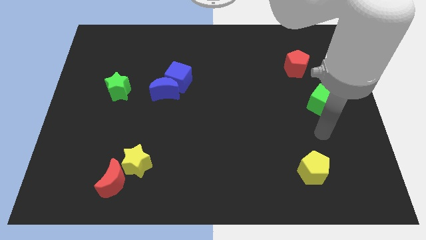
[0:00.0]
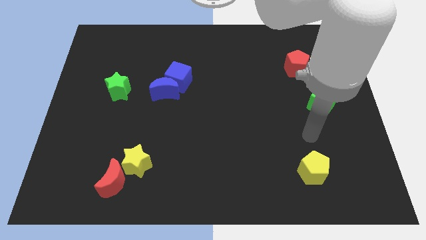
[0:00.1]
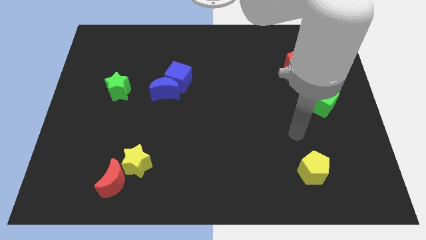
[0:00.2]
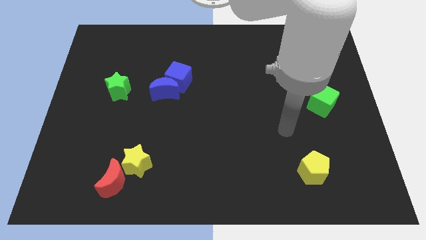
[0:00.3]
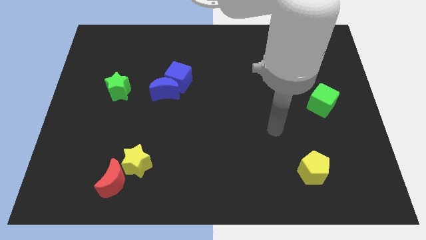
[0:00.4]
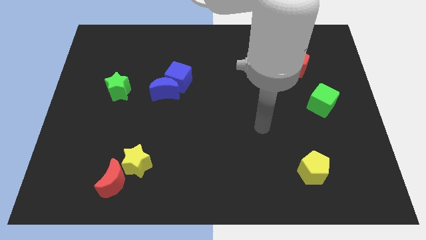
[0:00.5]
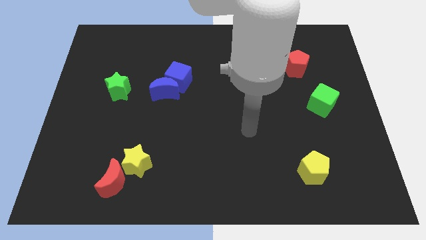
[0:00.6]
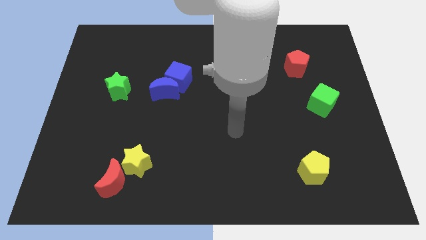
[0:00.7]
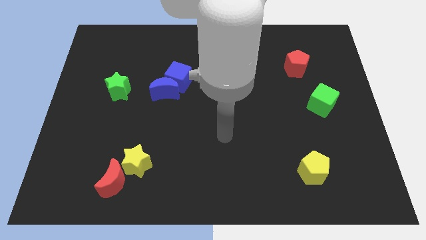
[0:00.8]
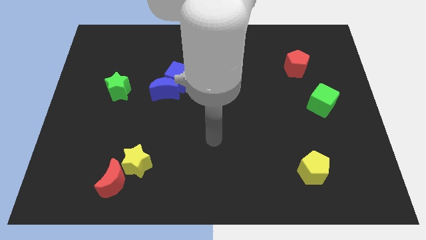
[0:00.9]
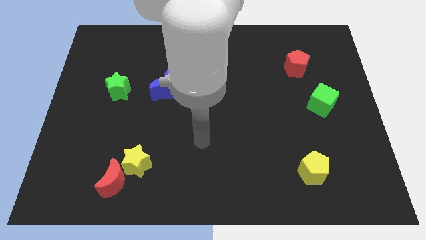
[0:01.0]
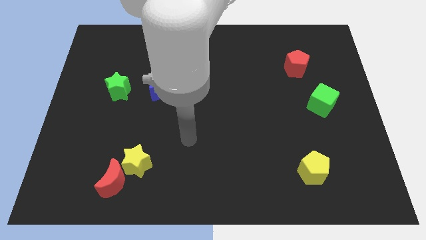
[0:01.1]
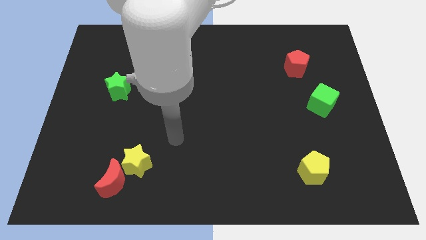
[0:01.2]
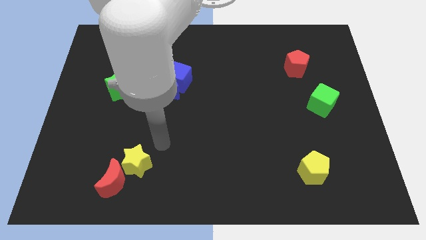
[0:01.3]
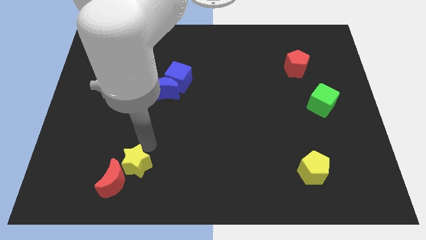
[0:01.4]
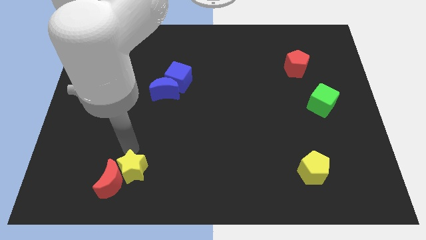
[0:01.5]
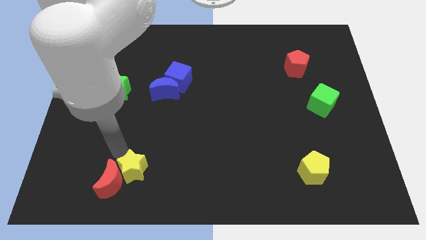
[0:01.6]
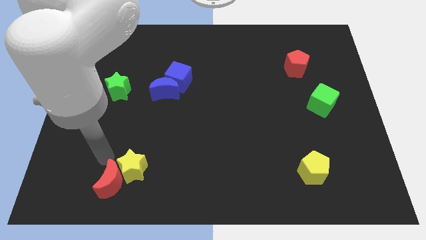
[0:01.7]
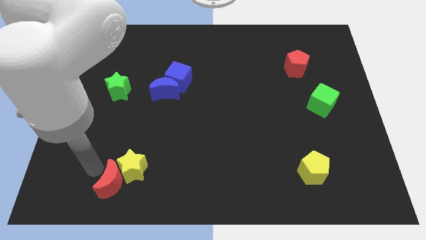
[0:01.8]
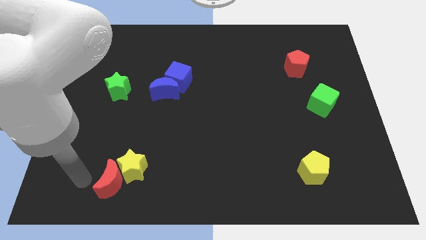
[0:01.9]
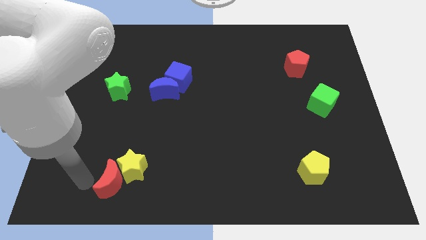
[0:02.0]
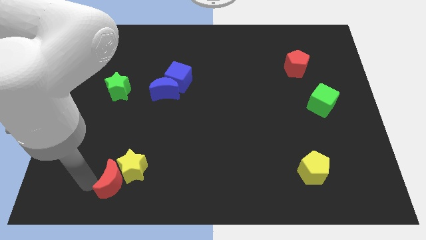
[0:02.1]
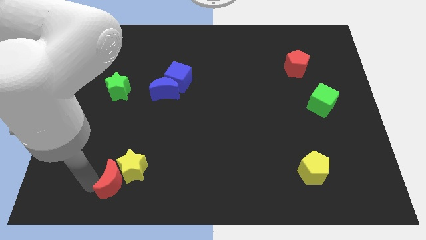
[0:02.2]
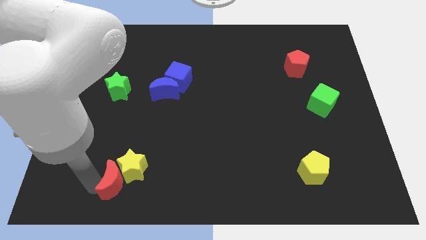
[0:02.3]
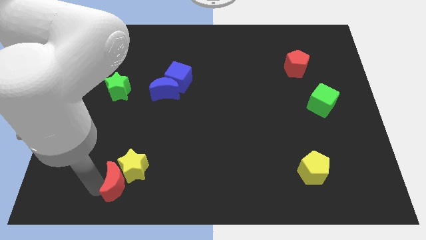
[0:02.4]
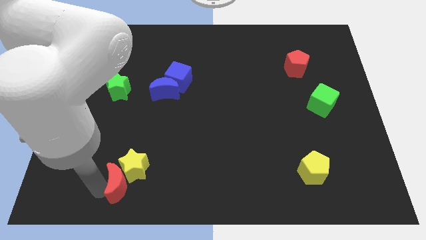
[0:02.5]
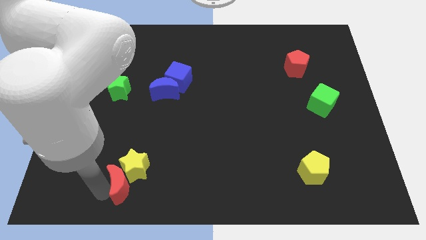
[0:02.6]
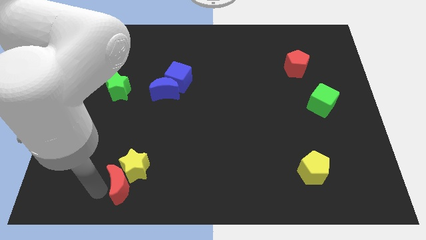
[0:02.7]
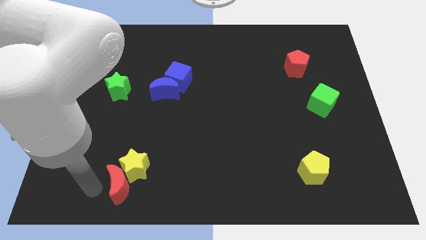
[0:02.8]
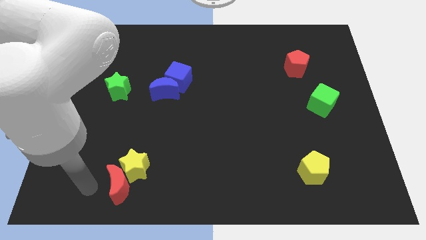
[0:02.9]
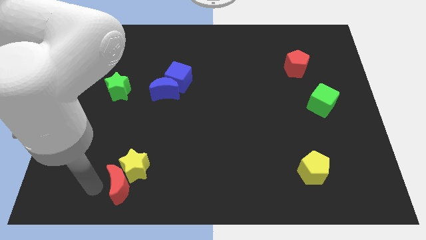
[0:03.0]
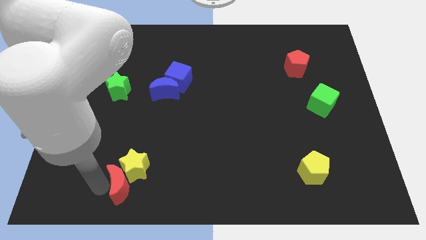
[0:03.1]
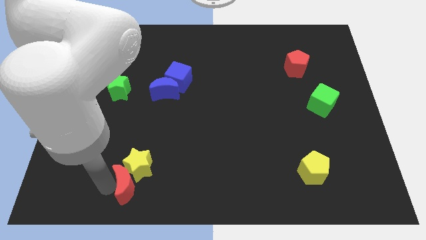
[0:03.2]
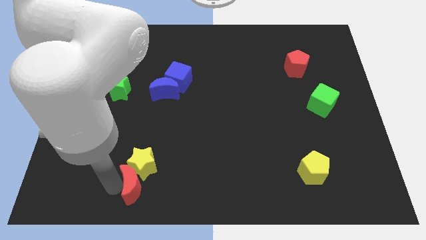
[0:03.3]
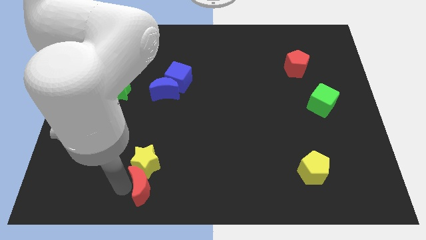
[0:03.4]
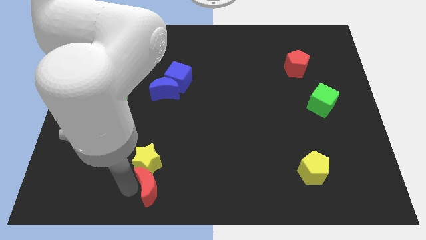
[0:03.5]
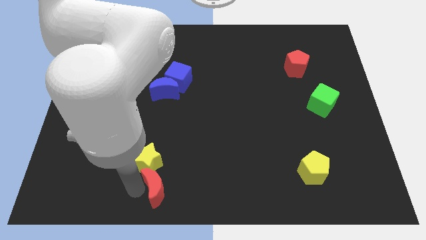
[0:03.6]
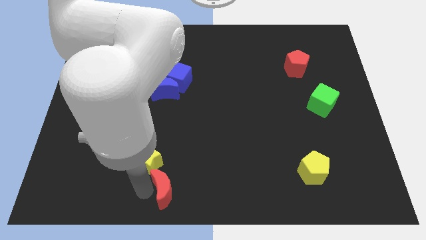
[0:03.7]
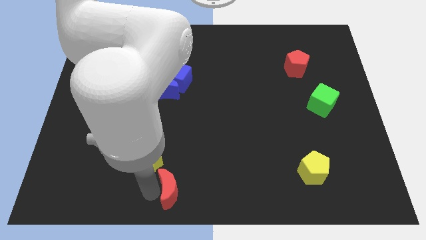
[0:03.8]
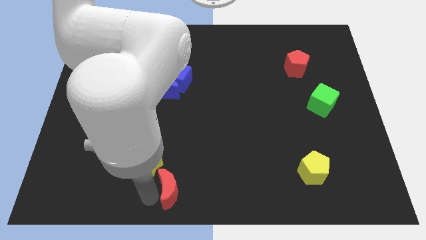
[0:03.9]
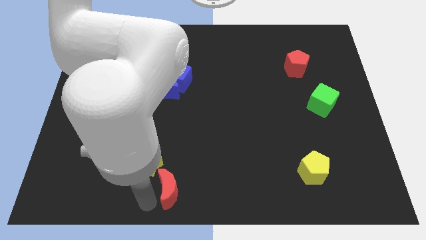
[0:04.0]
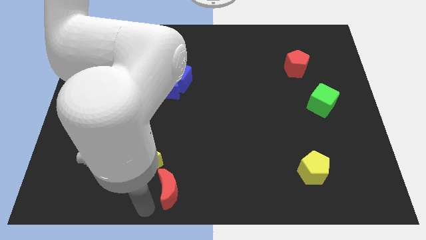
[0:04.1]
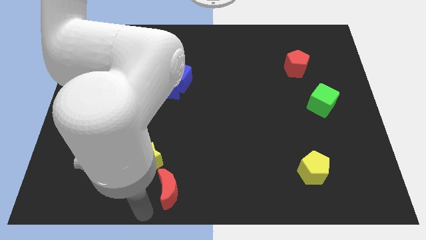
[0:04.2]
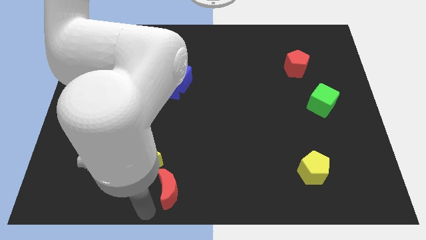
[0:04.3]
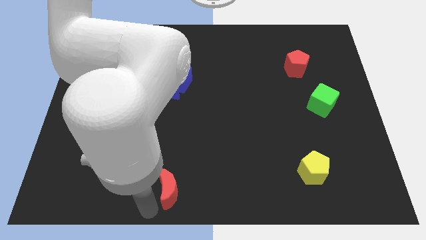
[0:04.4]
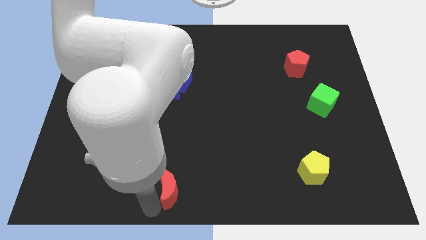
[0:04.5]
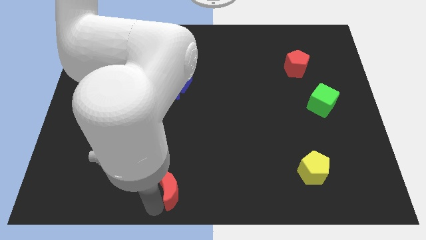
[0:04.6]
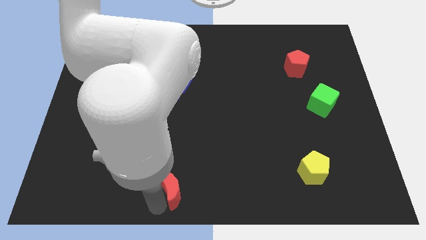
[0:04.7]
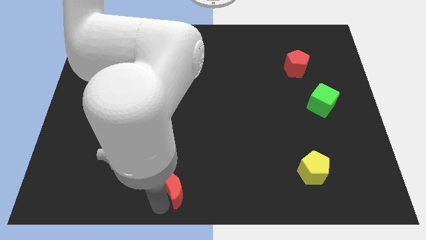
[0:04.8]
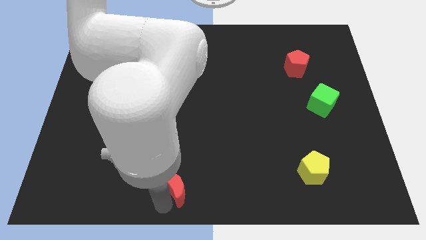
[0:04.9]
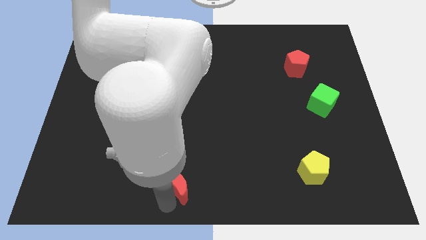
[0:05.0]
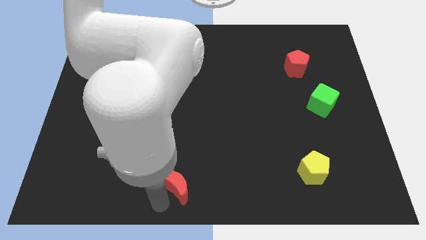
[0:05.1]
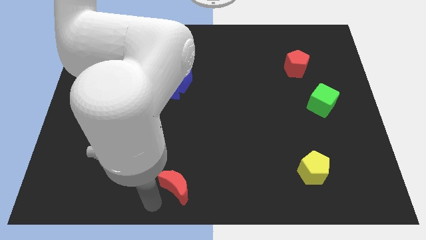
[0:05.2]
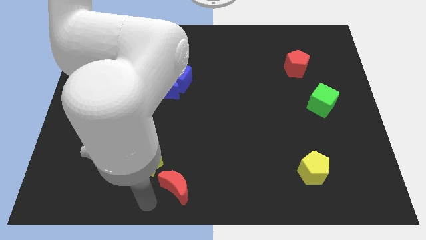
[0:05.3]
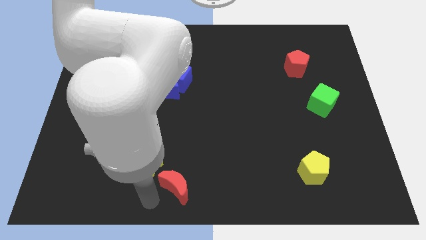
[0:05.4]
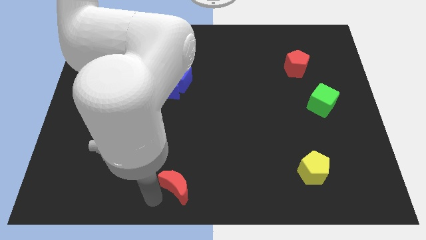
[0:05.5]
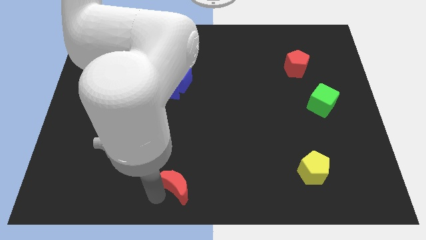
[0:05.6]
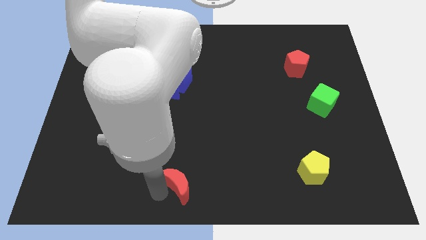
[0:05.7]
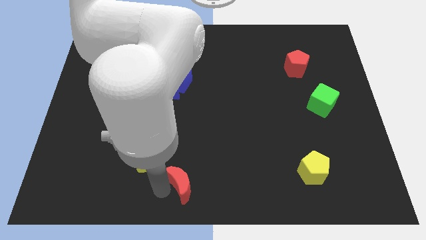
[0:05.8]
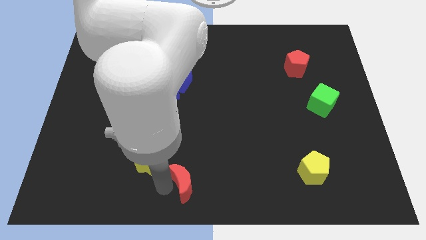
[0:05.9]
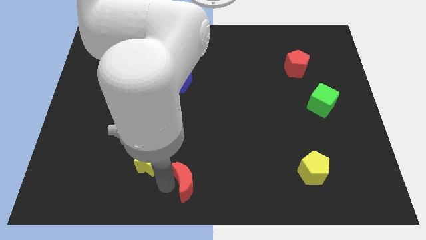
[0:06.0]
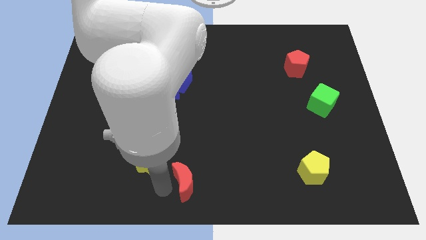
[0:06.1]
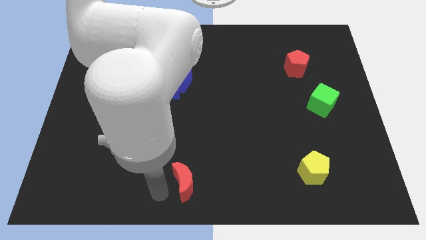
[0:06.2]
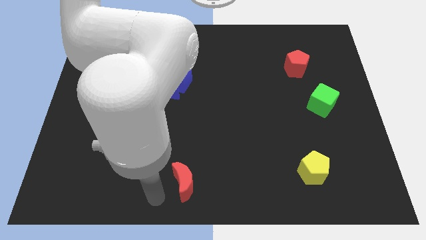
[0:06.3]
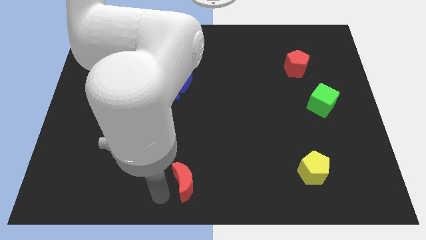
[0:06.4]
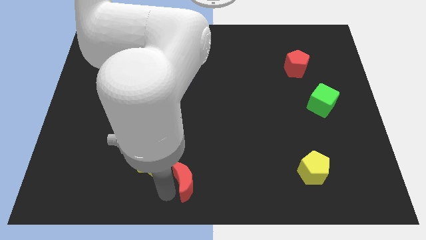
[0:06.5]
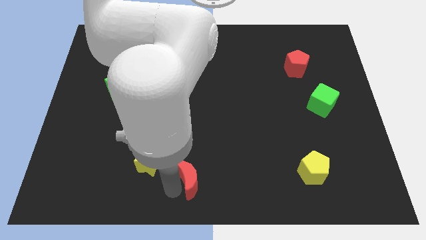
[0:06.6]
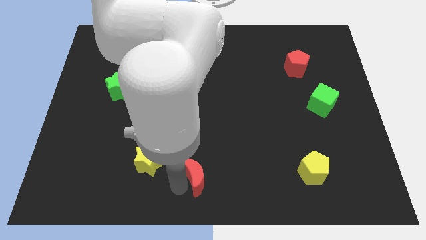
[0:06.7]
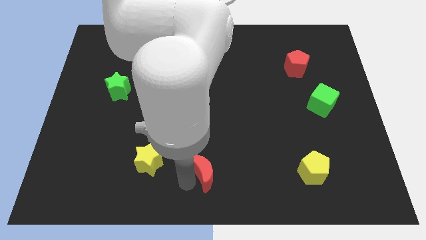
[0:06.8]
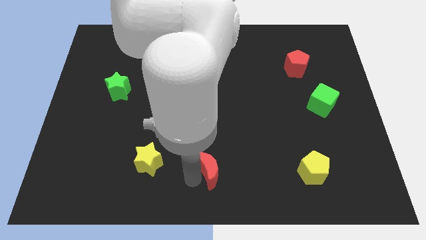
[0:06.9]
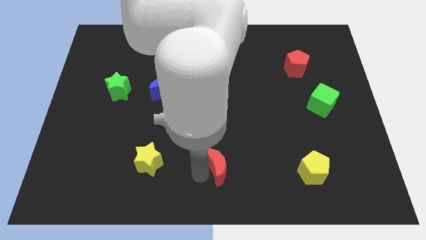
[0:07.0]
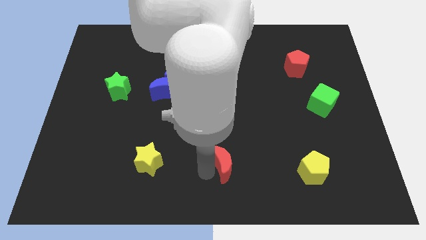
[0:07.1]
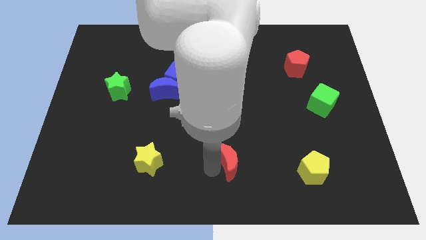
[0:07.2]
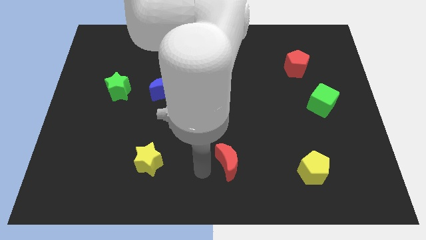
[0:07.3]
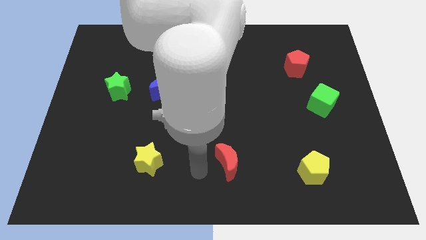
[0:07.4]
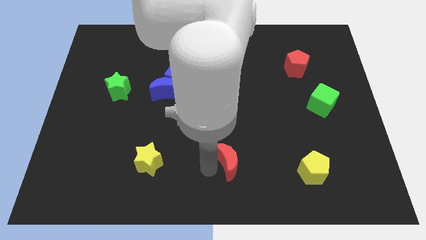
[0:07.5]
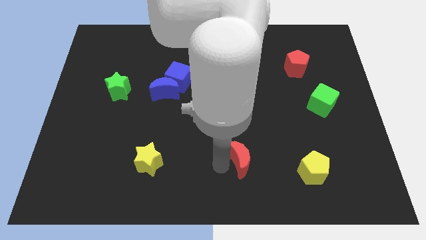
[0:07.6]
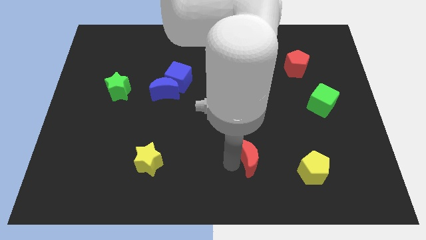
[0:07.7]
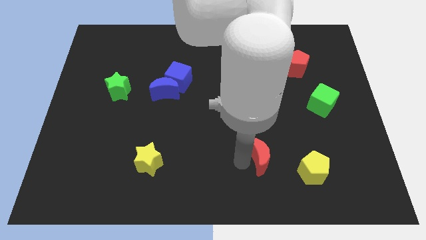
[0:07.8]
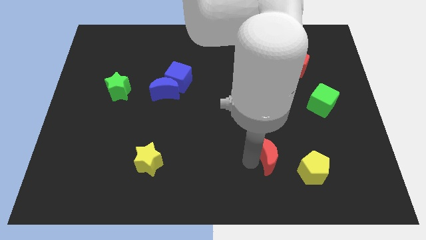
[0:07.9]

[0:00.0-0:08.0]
slide the red moon diagonally up and to the left of the yellow pentagon
